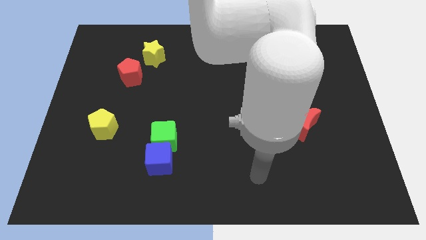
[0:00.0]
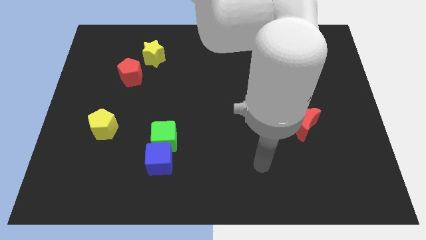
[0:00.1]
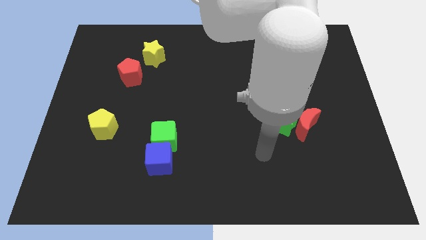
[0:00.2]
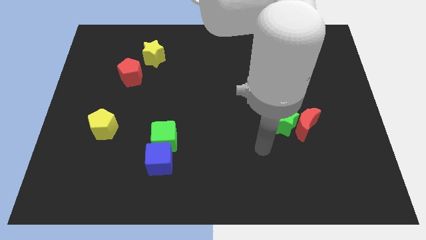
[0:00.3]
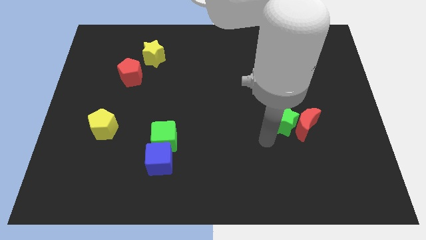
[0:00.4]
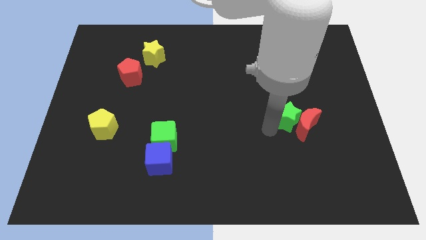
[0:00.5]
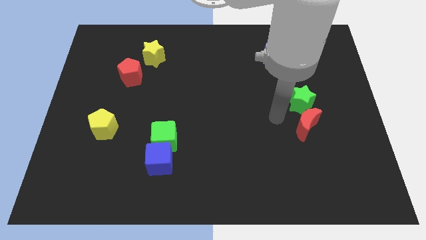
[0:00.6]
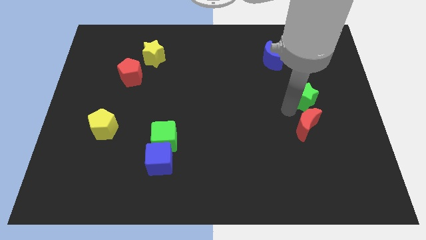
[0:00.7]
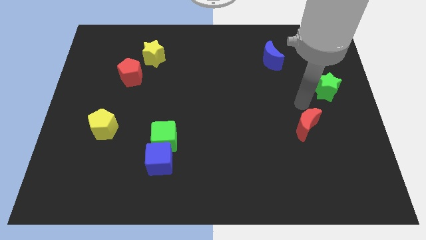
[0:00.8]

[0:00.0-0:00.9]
move the red moon away from the green star

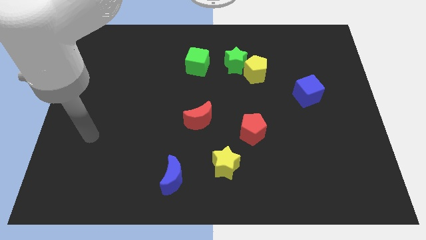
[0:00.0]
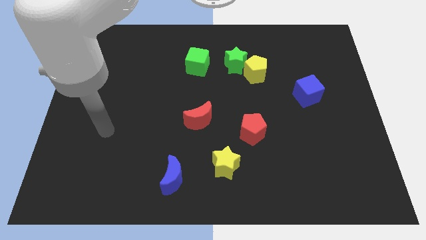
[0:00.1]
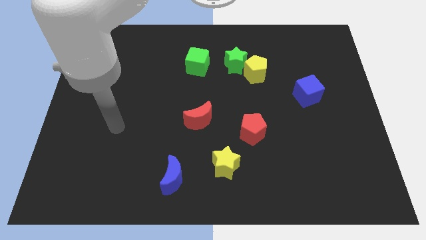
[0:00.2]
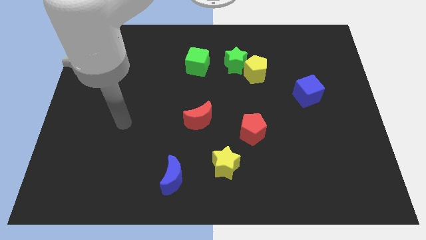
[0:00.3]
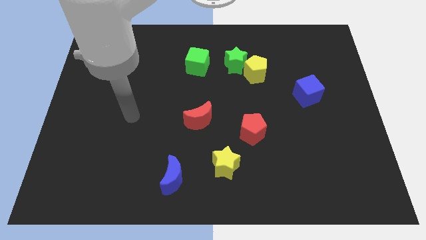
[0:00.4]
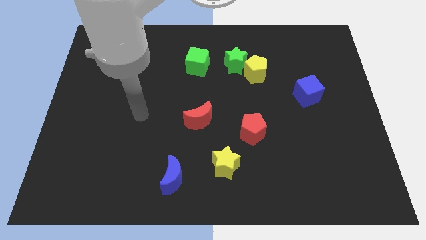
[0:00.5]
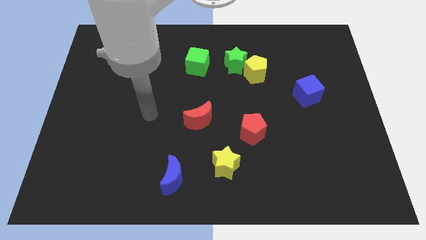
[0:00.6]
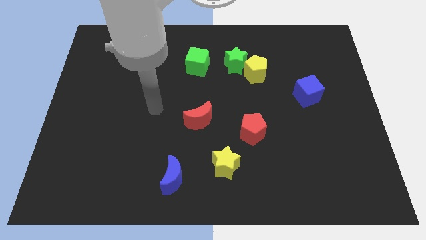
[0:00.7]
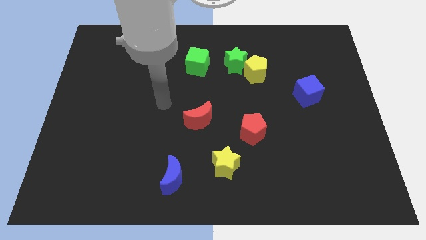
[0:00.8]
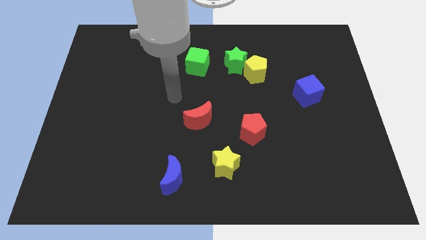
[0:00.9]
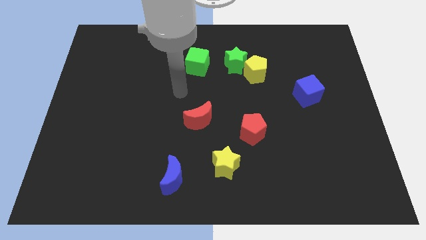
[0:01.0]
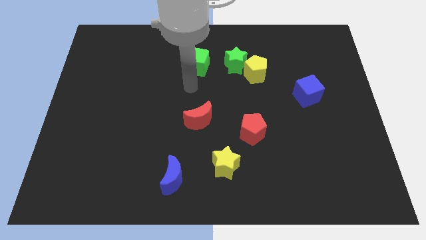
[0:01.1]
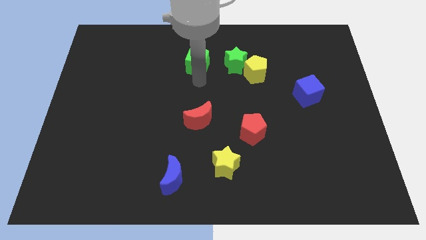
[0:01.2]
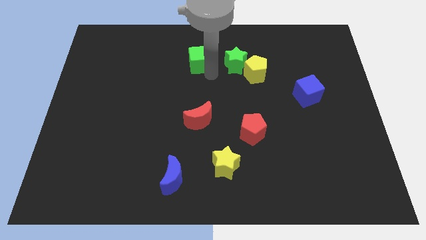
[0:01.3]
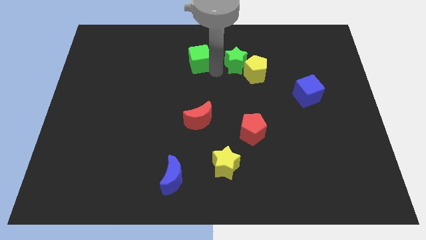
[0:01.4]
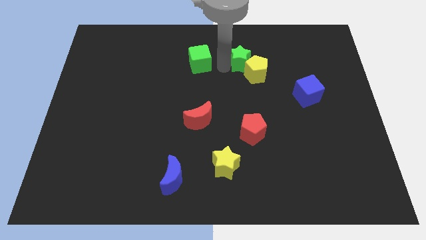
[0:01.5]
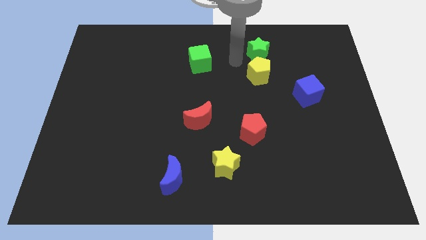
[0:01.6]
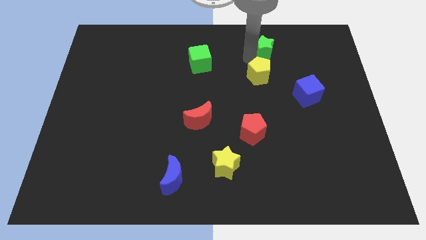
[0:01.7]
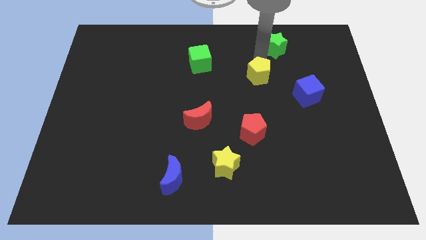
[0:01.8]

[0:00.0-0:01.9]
move the yellow pentagon away from the green star

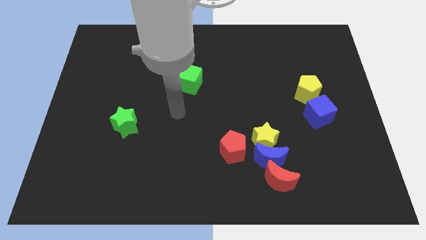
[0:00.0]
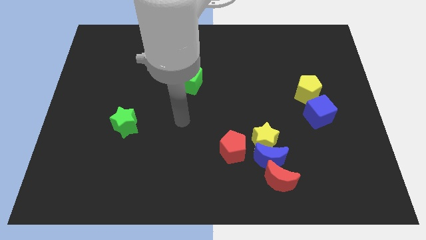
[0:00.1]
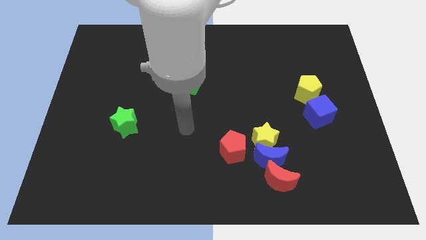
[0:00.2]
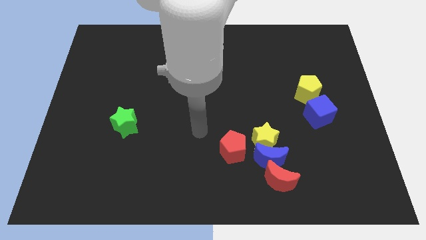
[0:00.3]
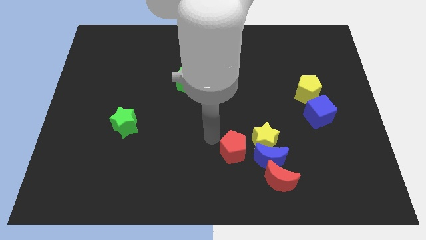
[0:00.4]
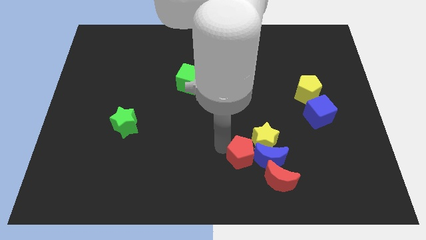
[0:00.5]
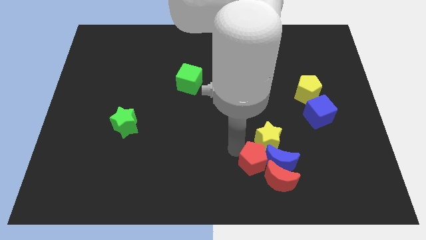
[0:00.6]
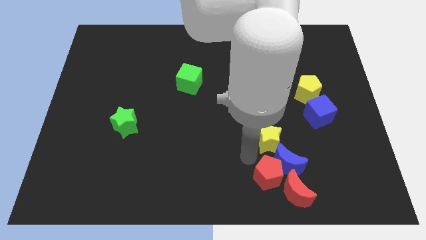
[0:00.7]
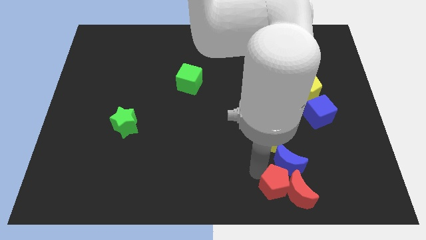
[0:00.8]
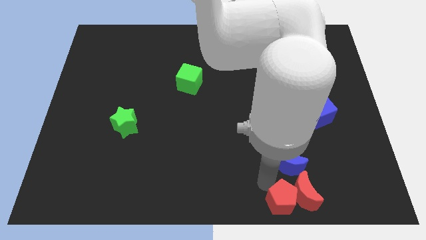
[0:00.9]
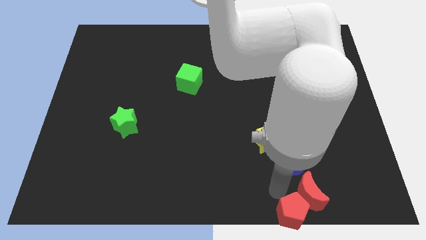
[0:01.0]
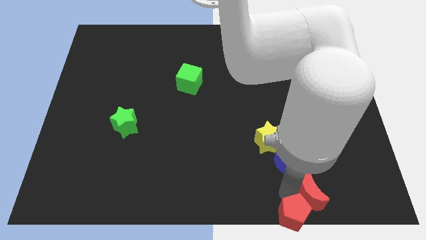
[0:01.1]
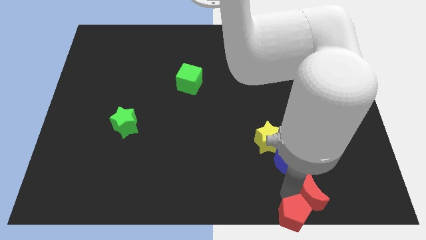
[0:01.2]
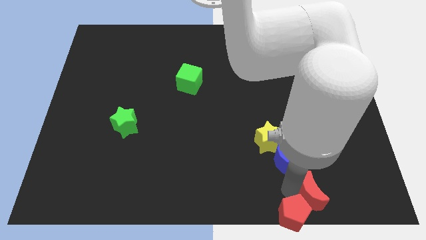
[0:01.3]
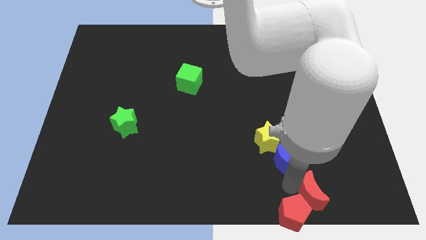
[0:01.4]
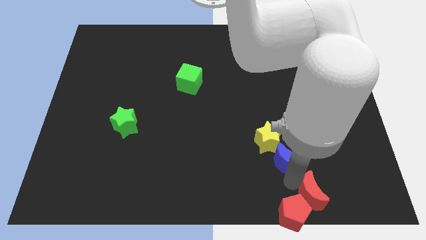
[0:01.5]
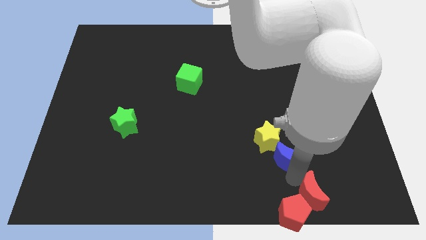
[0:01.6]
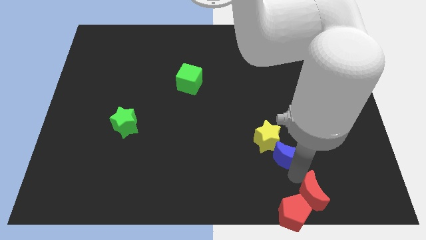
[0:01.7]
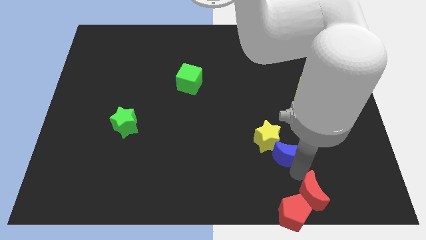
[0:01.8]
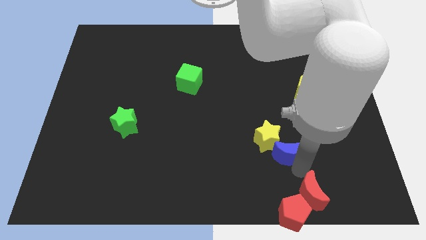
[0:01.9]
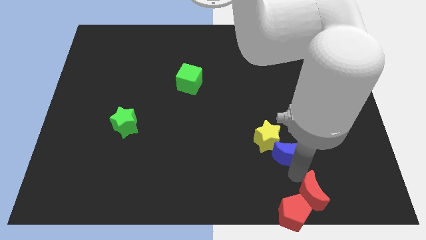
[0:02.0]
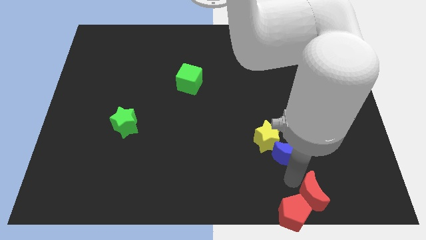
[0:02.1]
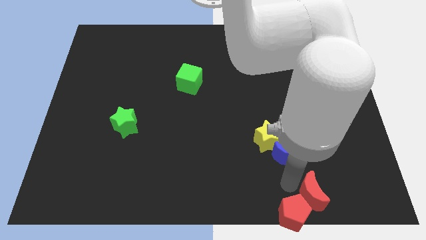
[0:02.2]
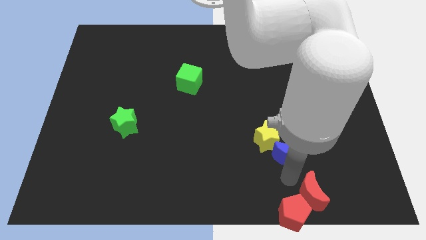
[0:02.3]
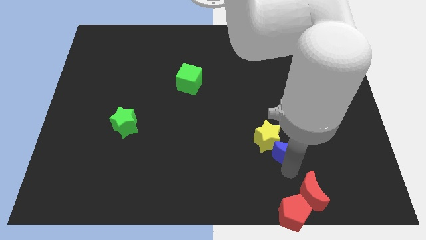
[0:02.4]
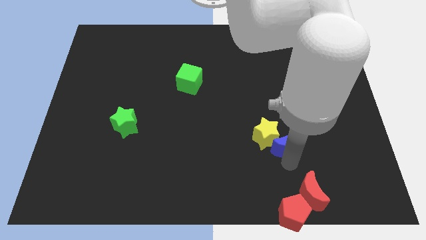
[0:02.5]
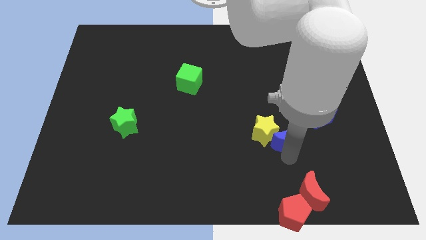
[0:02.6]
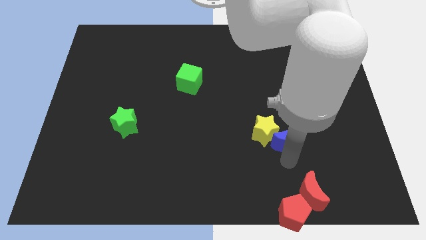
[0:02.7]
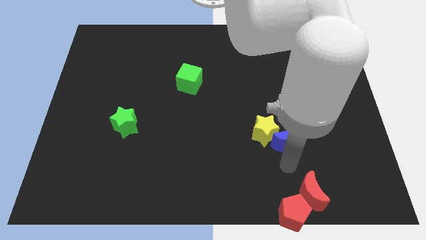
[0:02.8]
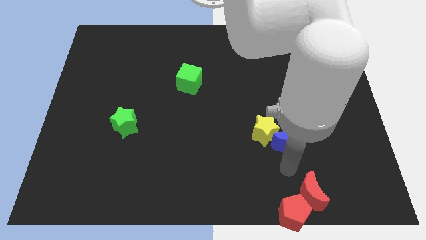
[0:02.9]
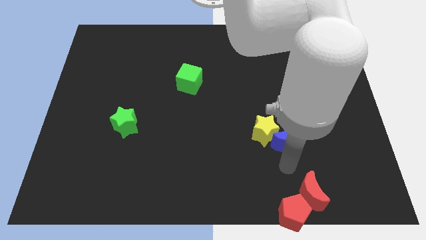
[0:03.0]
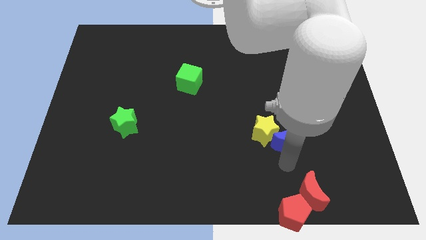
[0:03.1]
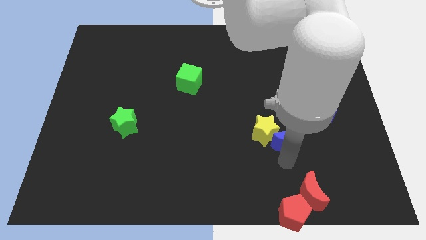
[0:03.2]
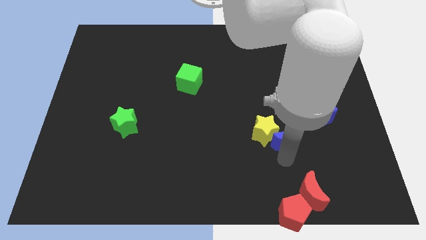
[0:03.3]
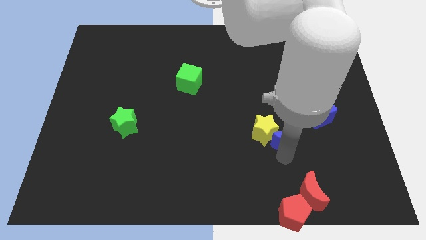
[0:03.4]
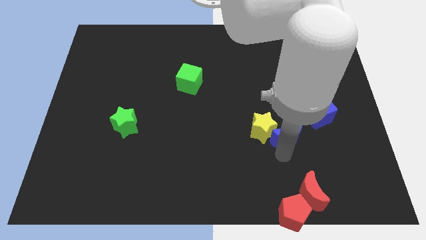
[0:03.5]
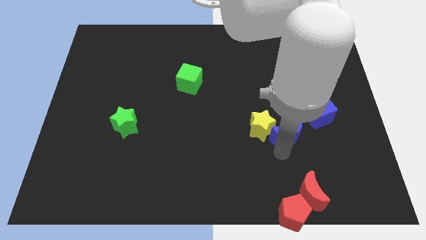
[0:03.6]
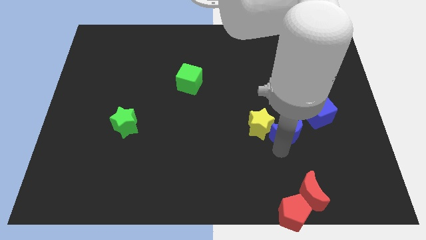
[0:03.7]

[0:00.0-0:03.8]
separate the blue moon from the clump

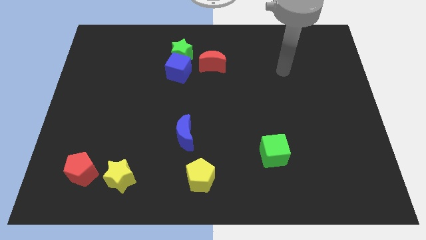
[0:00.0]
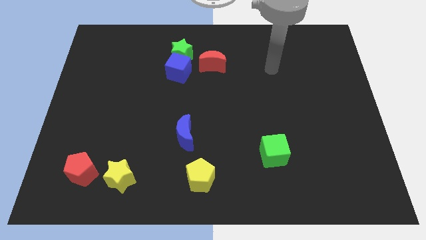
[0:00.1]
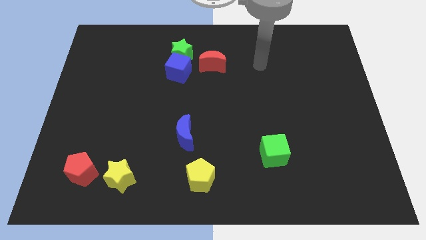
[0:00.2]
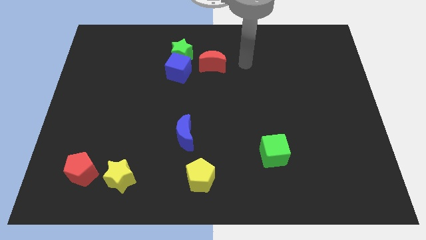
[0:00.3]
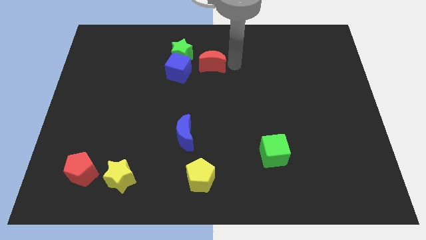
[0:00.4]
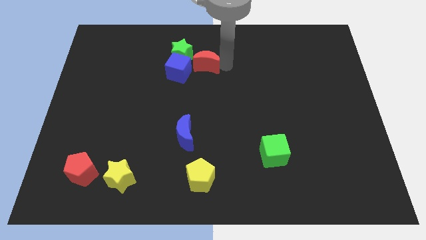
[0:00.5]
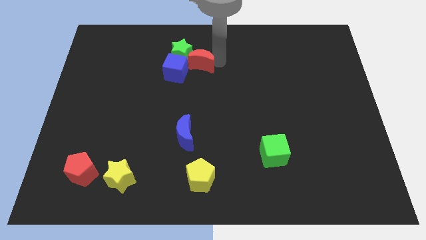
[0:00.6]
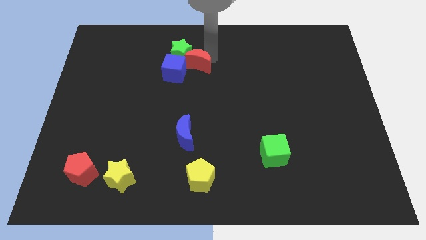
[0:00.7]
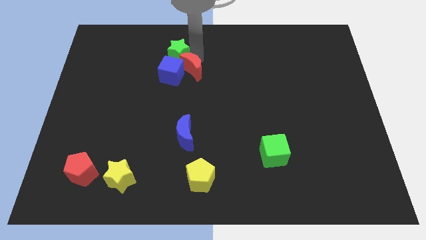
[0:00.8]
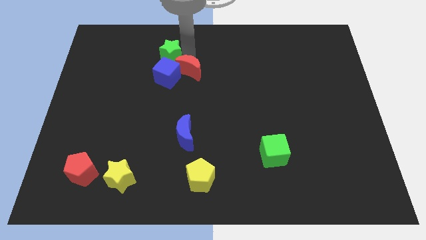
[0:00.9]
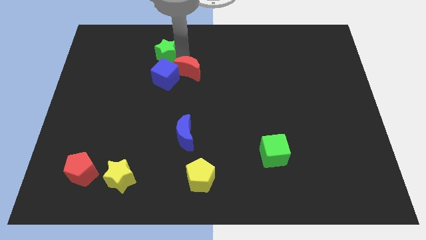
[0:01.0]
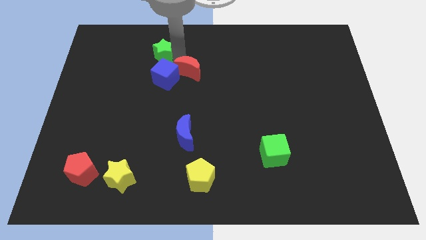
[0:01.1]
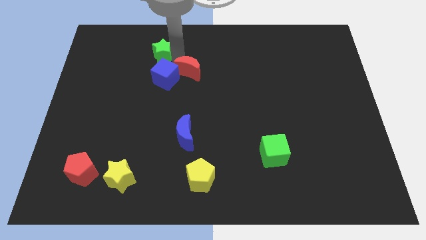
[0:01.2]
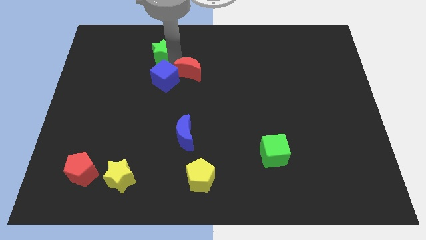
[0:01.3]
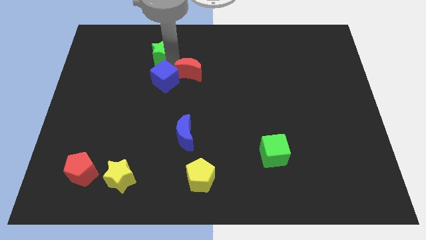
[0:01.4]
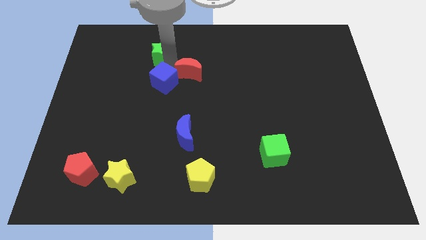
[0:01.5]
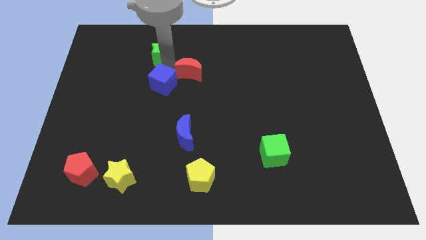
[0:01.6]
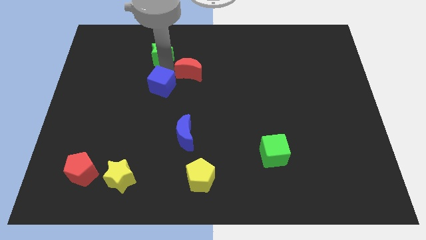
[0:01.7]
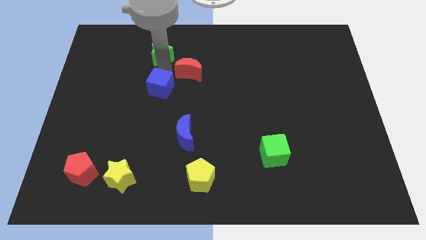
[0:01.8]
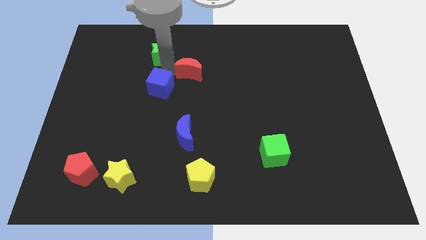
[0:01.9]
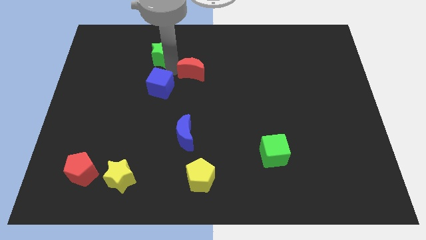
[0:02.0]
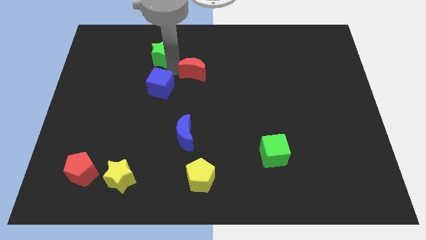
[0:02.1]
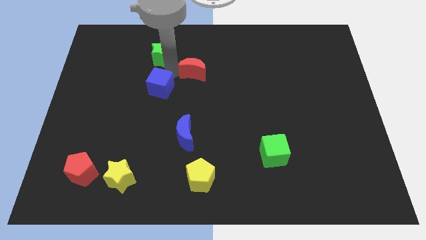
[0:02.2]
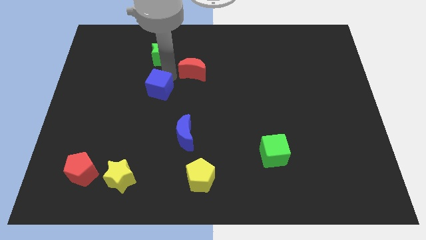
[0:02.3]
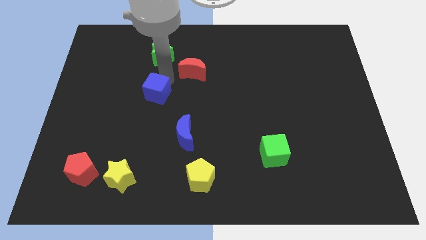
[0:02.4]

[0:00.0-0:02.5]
move the blue cube away from the green star and red moon

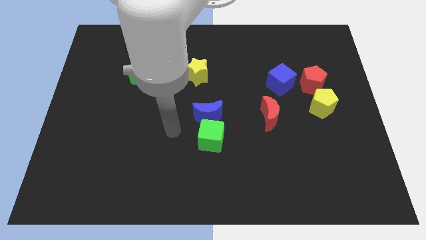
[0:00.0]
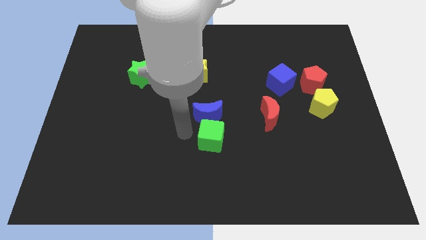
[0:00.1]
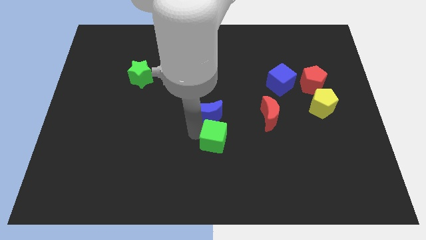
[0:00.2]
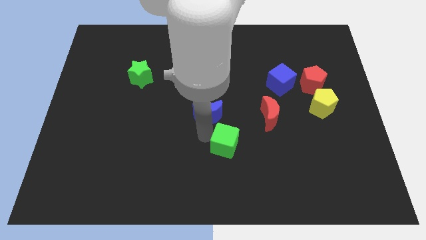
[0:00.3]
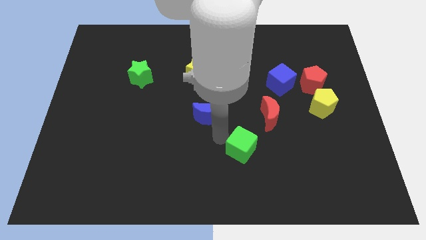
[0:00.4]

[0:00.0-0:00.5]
move the blue moon away from the green cube
